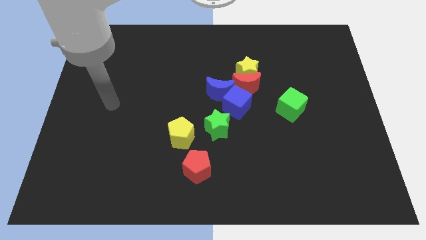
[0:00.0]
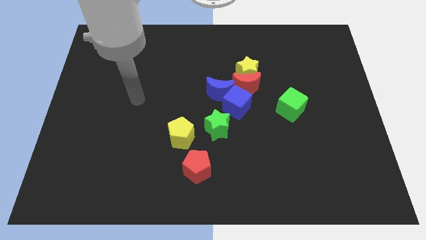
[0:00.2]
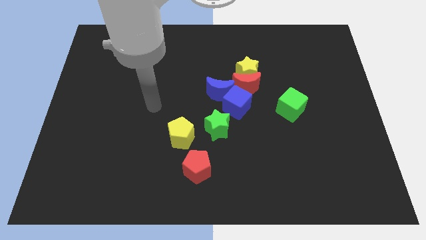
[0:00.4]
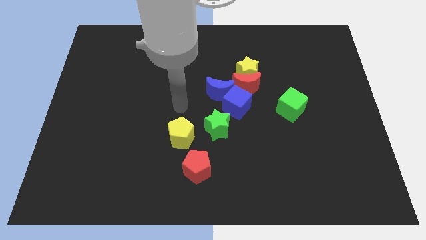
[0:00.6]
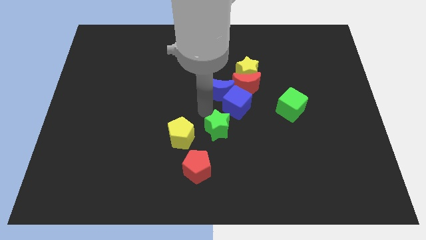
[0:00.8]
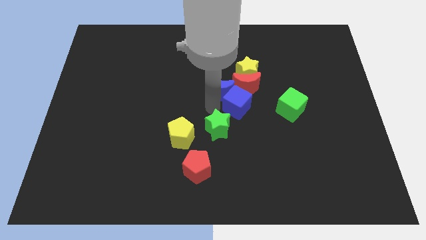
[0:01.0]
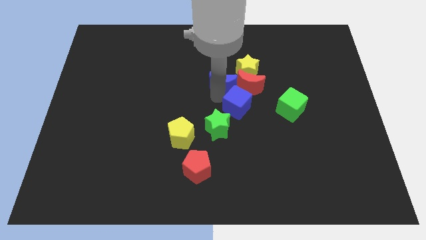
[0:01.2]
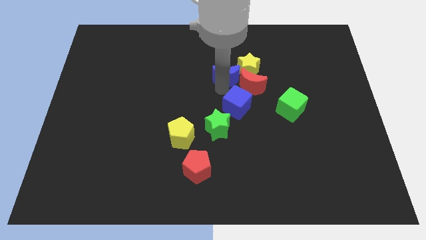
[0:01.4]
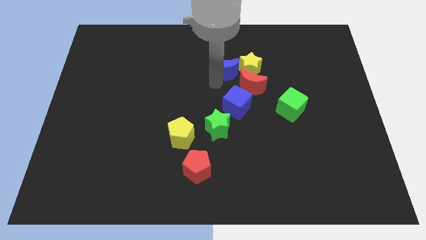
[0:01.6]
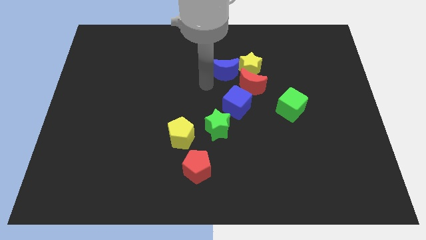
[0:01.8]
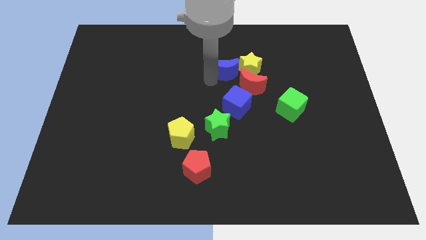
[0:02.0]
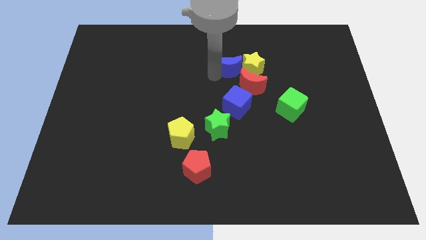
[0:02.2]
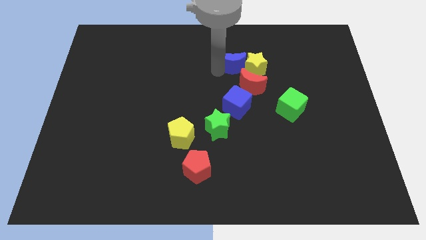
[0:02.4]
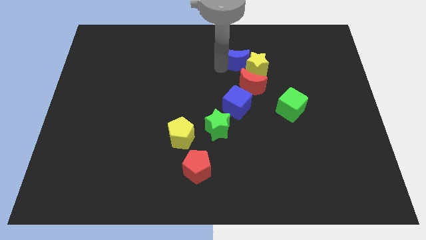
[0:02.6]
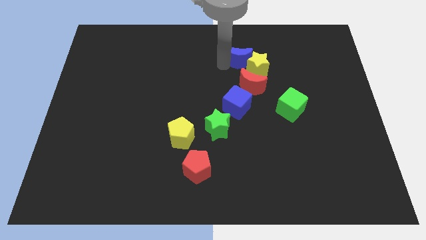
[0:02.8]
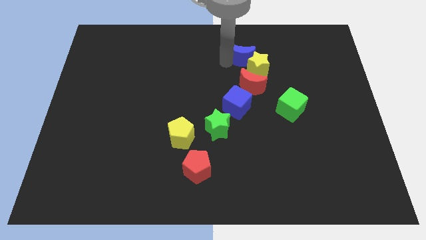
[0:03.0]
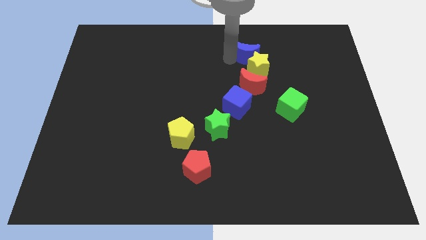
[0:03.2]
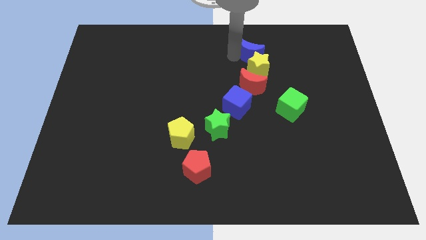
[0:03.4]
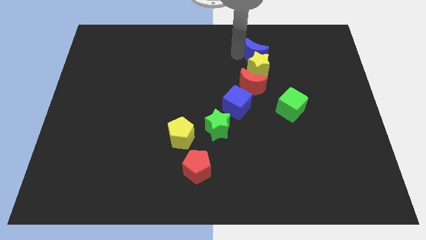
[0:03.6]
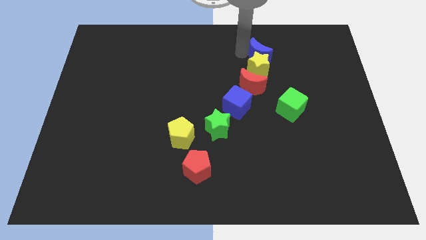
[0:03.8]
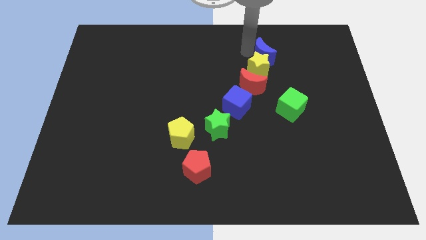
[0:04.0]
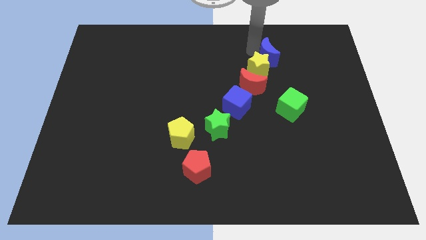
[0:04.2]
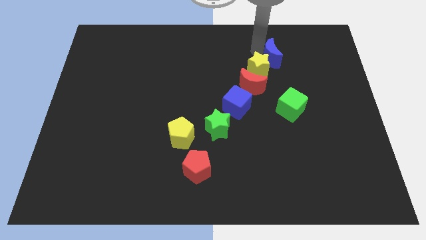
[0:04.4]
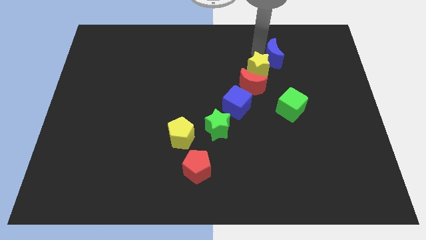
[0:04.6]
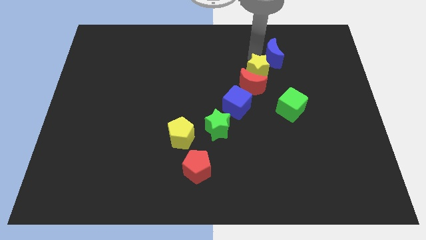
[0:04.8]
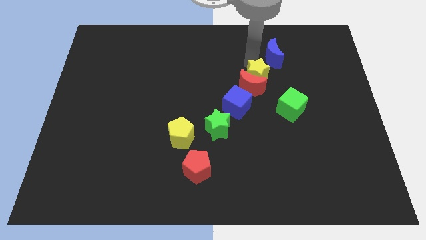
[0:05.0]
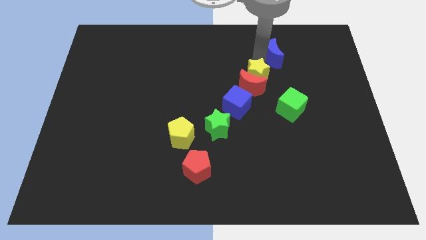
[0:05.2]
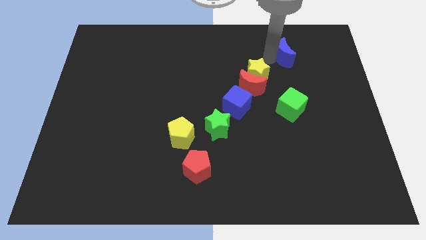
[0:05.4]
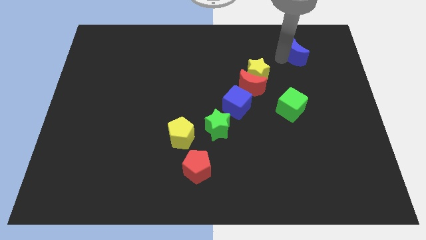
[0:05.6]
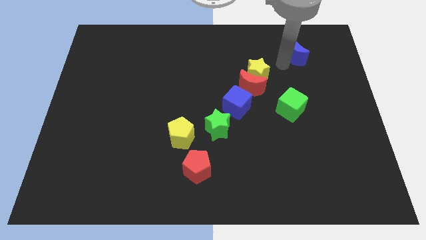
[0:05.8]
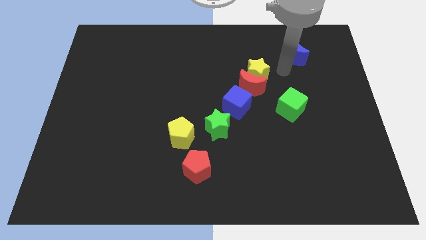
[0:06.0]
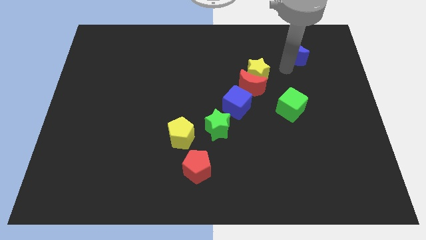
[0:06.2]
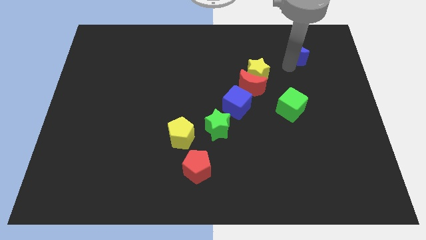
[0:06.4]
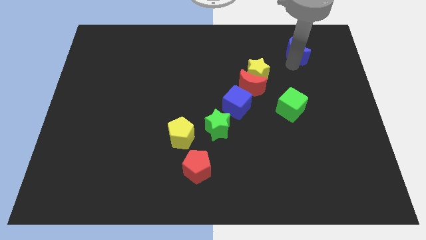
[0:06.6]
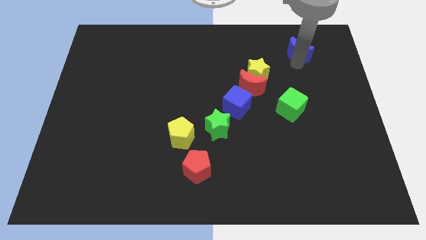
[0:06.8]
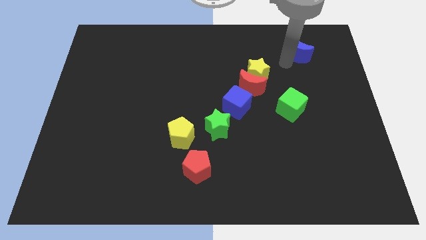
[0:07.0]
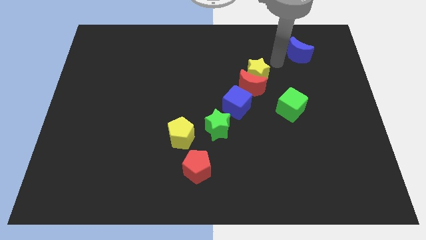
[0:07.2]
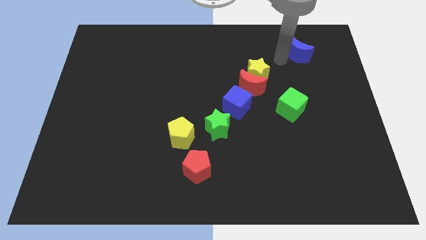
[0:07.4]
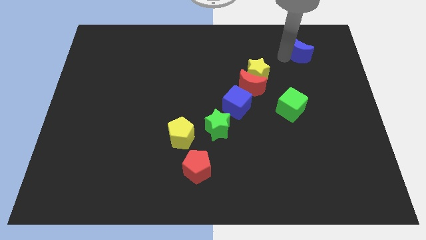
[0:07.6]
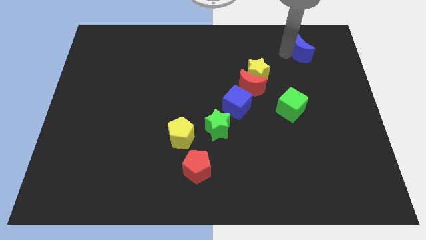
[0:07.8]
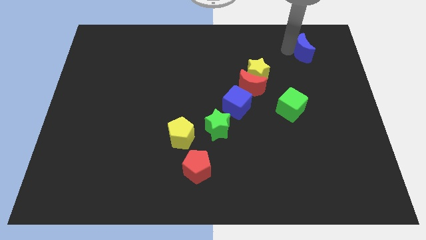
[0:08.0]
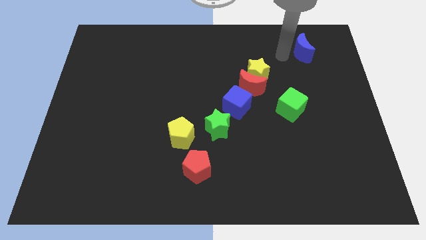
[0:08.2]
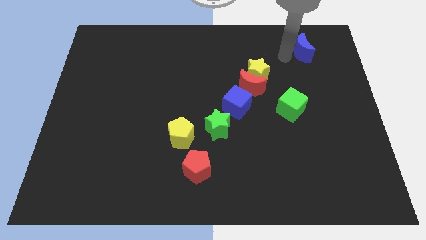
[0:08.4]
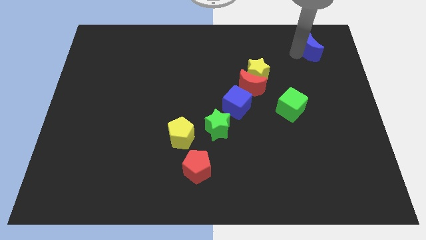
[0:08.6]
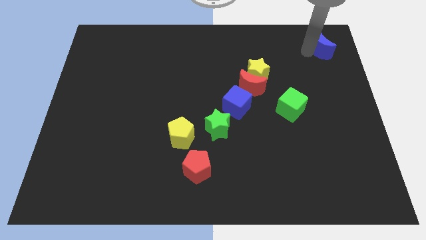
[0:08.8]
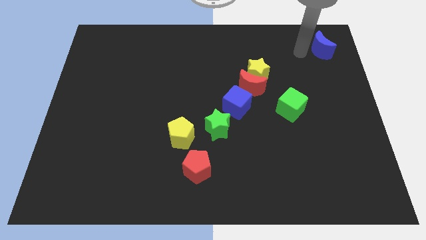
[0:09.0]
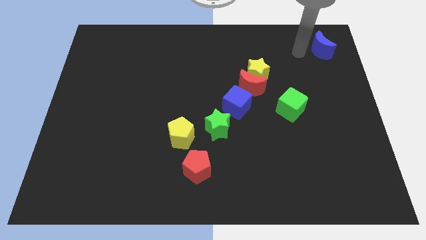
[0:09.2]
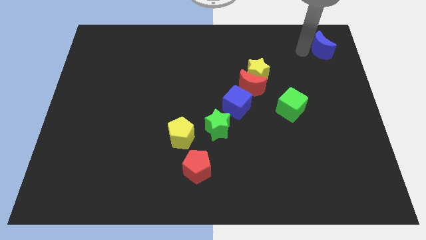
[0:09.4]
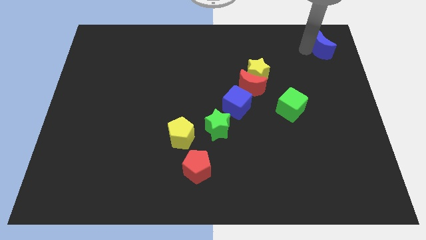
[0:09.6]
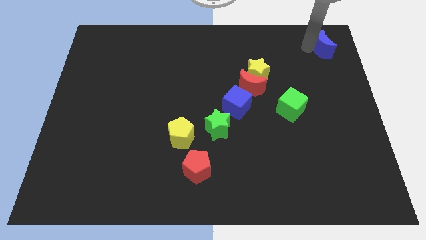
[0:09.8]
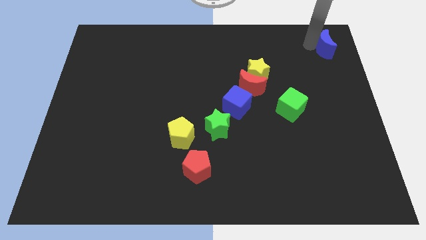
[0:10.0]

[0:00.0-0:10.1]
push the blue moon to the top right of the board

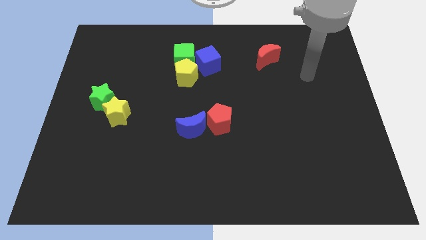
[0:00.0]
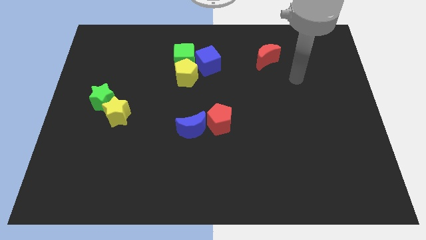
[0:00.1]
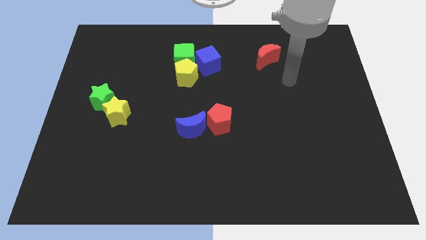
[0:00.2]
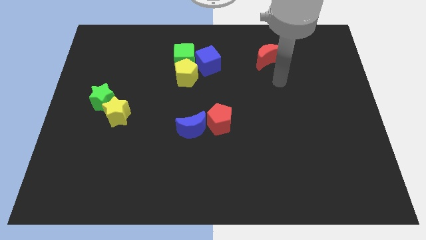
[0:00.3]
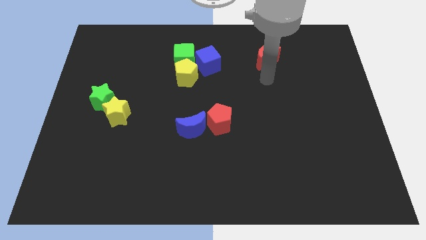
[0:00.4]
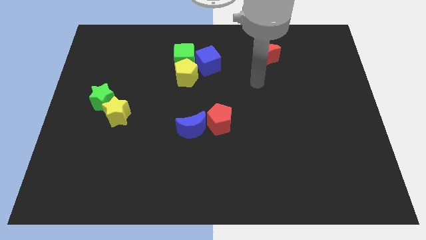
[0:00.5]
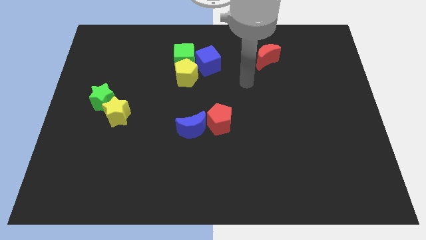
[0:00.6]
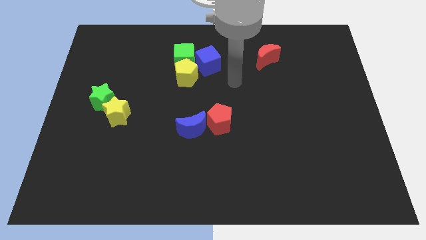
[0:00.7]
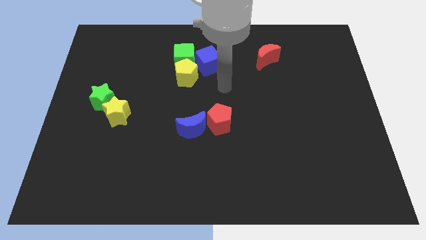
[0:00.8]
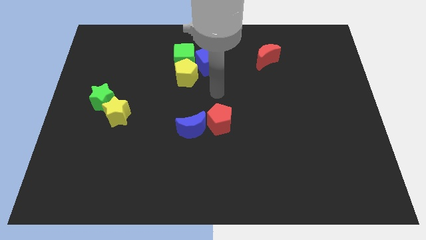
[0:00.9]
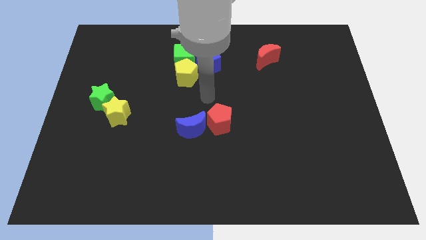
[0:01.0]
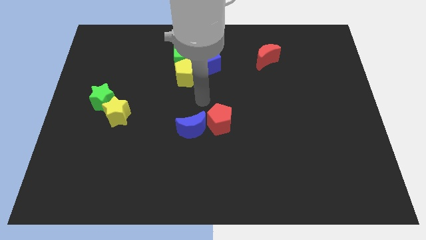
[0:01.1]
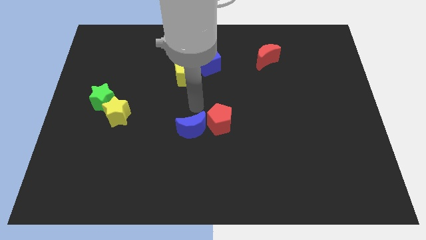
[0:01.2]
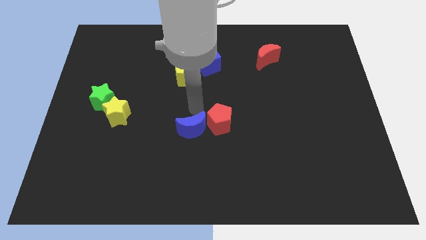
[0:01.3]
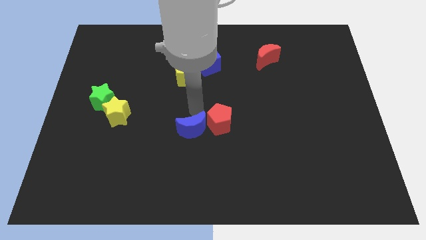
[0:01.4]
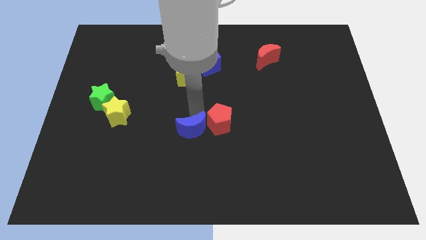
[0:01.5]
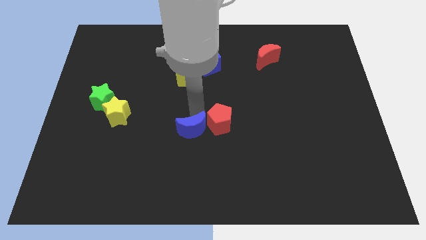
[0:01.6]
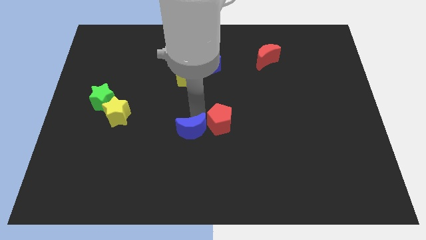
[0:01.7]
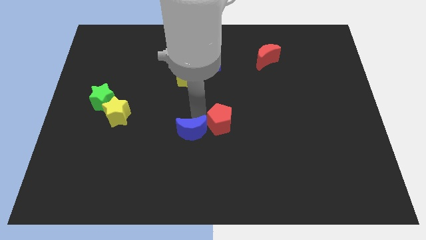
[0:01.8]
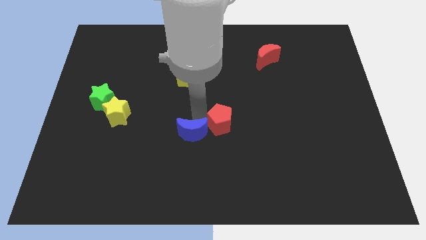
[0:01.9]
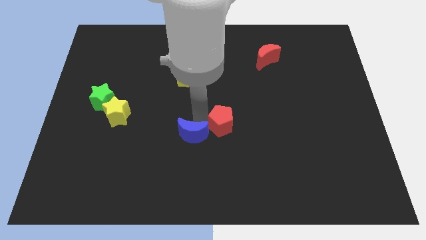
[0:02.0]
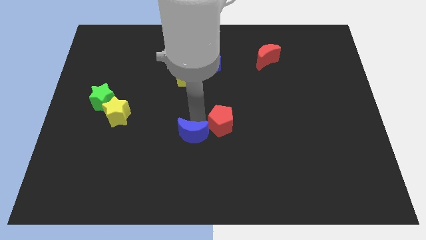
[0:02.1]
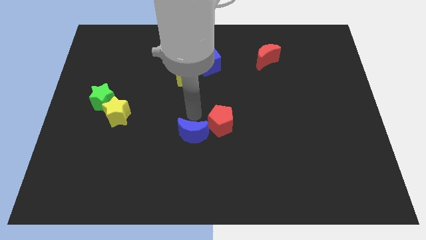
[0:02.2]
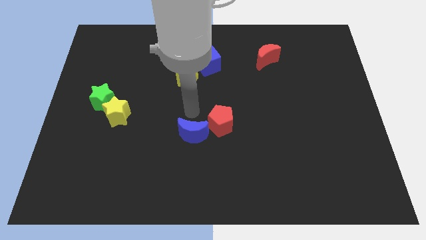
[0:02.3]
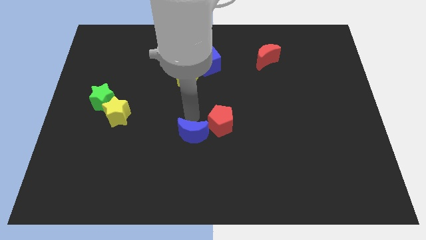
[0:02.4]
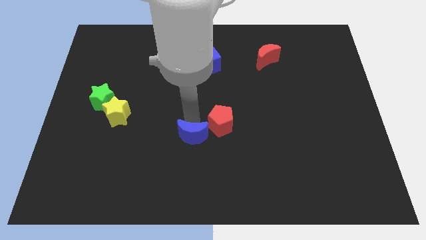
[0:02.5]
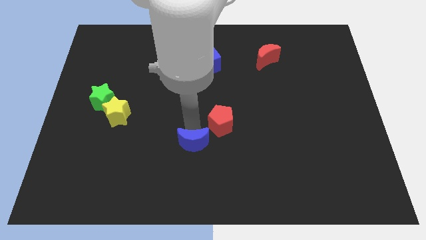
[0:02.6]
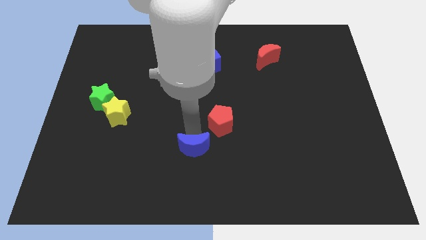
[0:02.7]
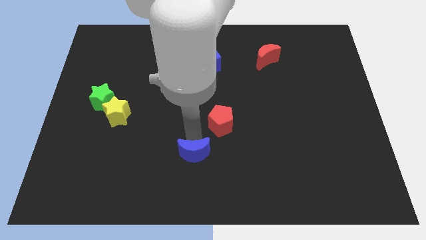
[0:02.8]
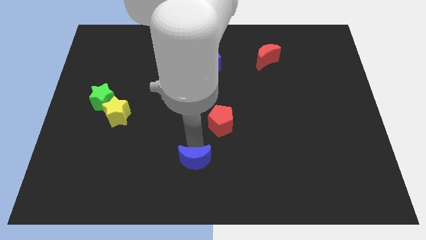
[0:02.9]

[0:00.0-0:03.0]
put the blue moon to the bottom
